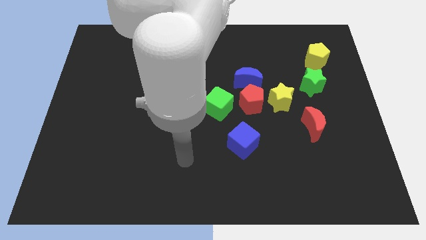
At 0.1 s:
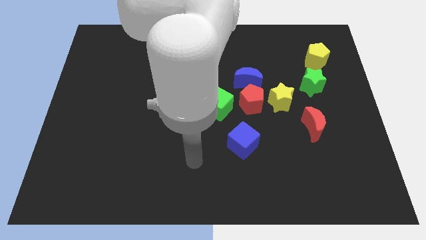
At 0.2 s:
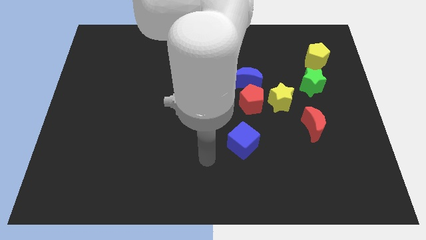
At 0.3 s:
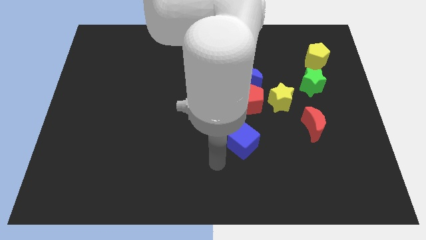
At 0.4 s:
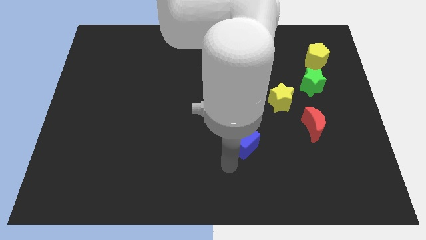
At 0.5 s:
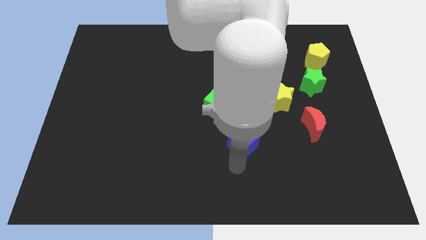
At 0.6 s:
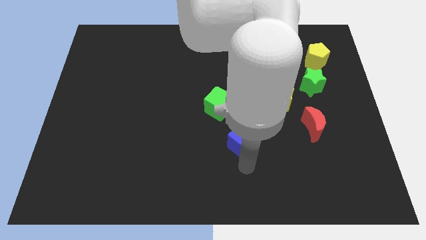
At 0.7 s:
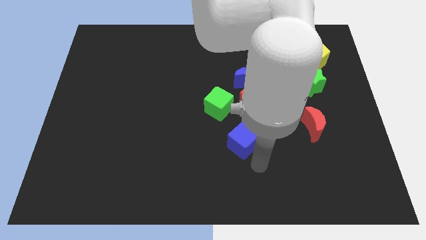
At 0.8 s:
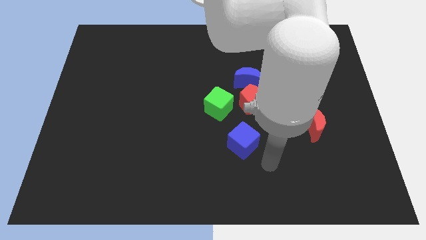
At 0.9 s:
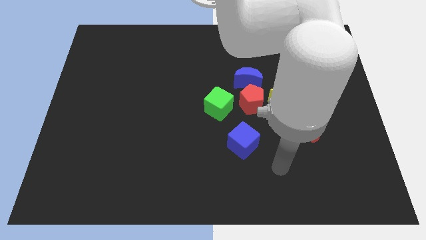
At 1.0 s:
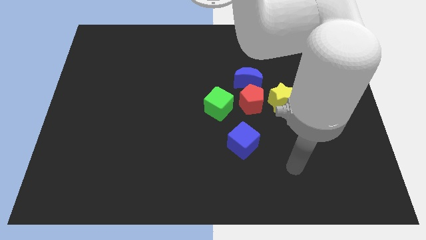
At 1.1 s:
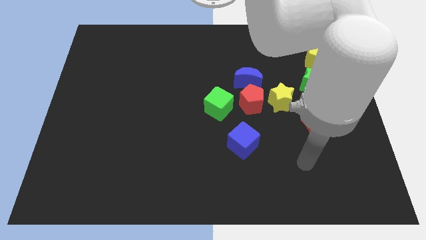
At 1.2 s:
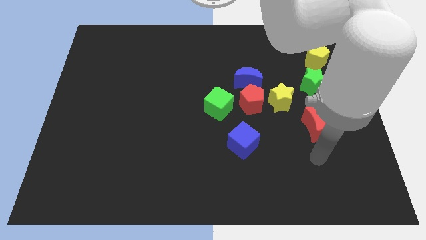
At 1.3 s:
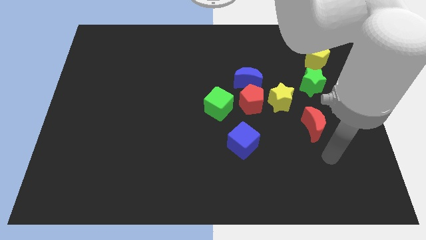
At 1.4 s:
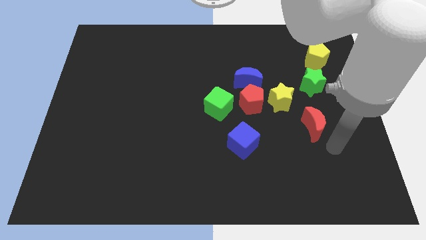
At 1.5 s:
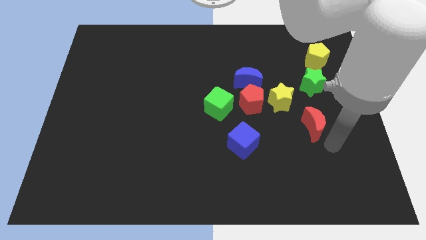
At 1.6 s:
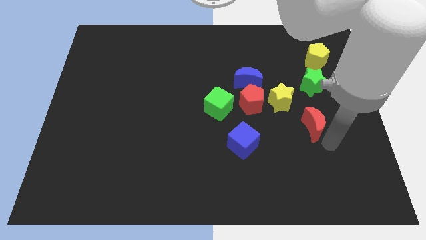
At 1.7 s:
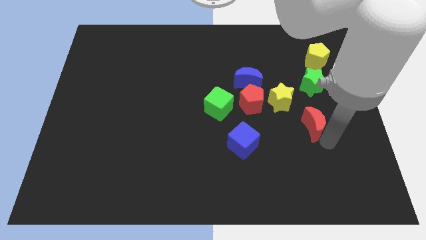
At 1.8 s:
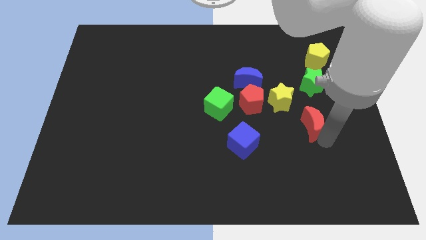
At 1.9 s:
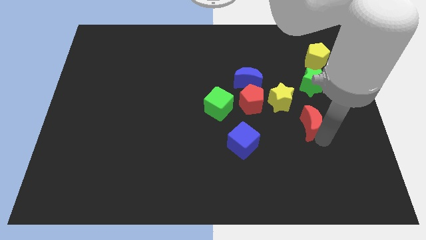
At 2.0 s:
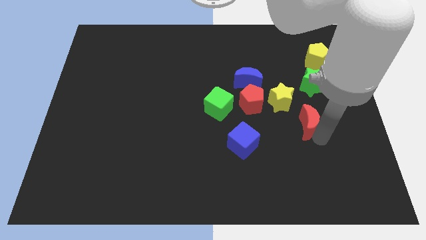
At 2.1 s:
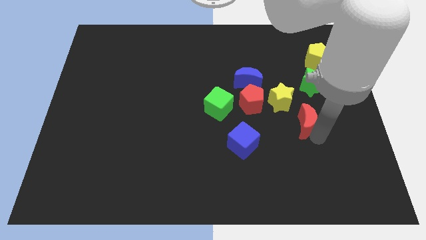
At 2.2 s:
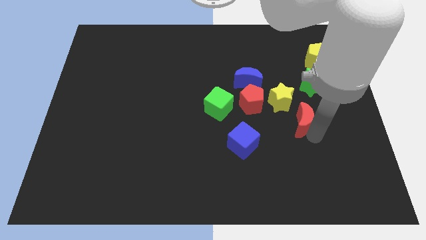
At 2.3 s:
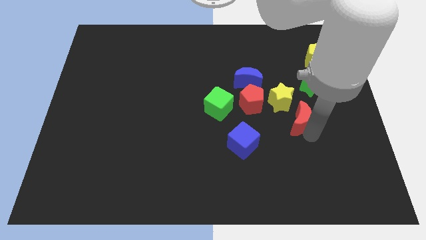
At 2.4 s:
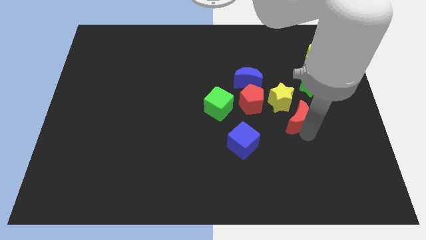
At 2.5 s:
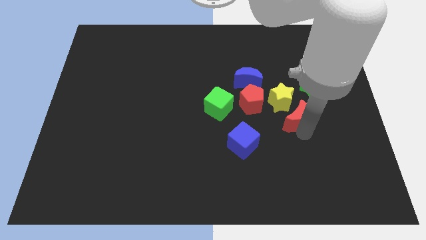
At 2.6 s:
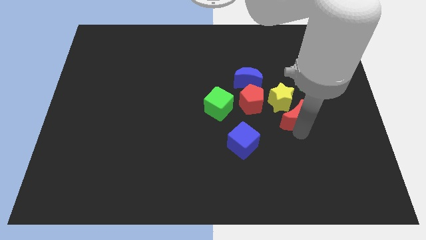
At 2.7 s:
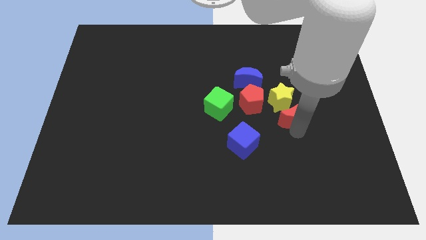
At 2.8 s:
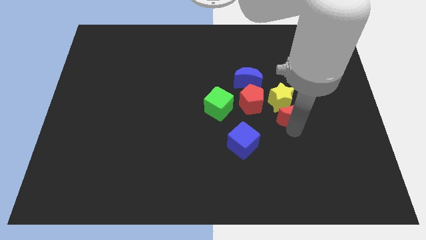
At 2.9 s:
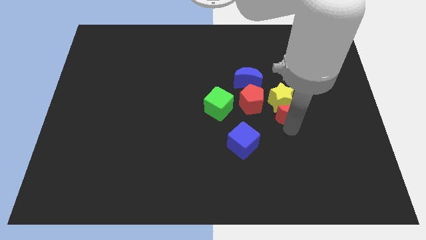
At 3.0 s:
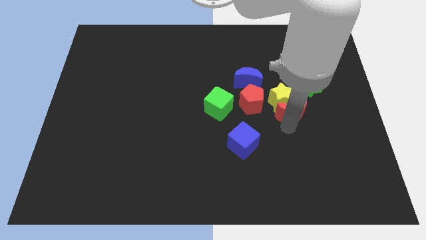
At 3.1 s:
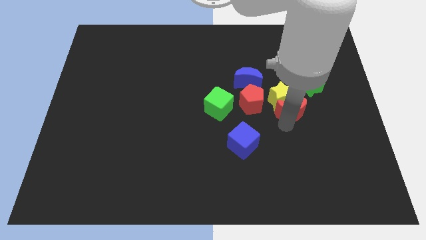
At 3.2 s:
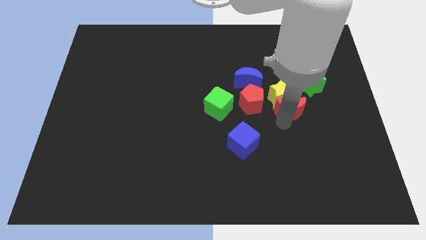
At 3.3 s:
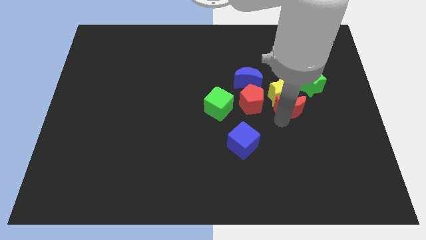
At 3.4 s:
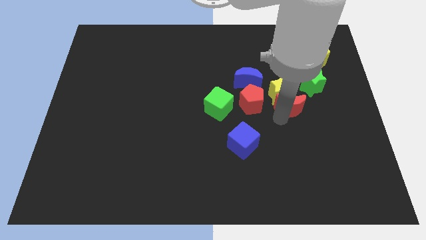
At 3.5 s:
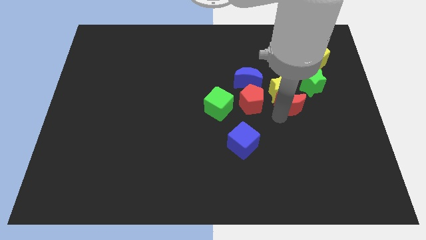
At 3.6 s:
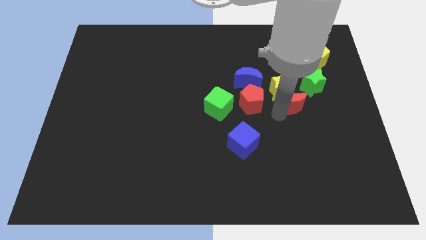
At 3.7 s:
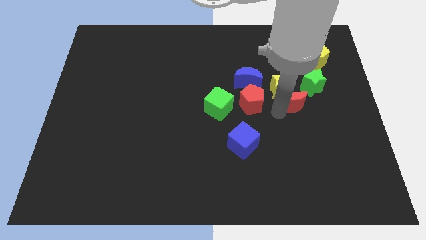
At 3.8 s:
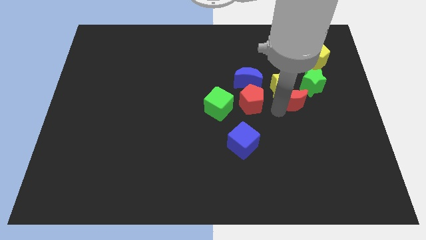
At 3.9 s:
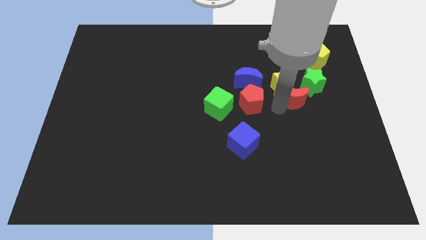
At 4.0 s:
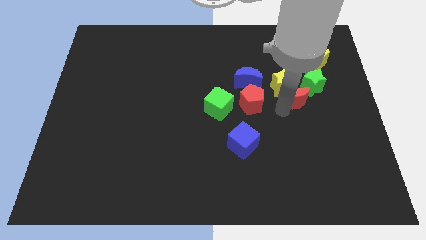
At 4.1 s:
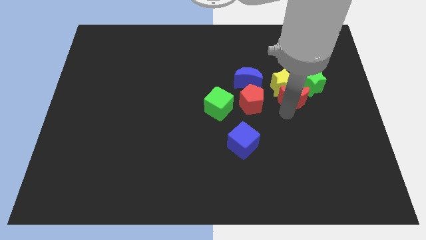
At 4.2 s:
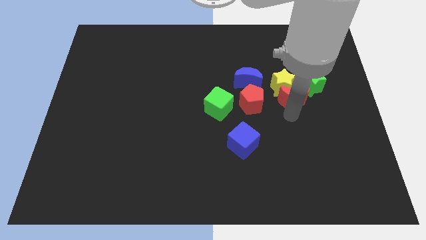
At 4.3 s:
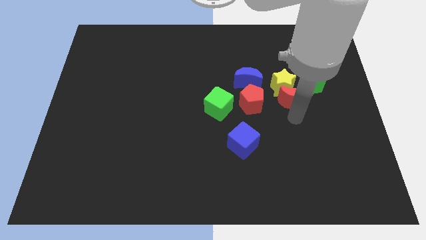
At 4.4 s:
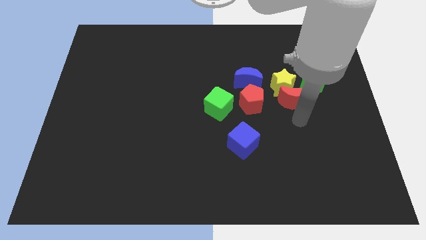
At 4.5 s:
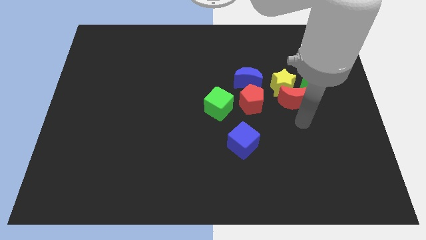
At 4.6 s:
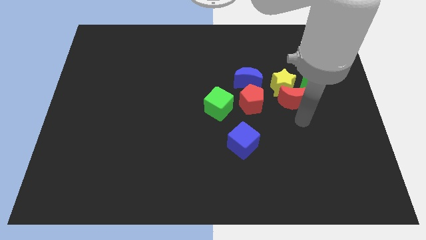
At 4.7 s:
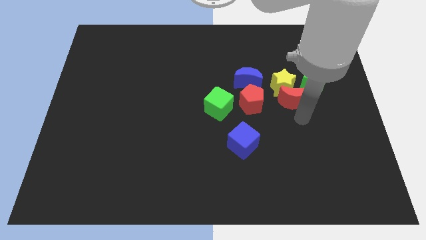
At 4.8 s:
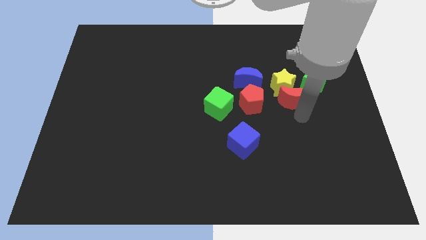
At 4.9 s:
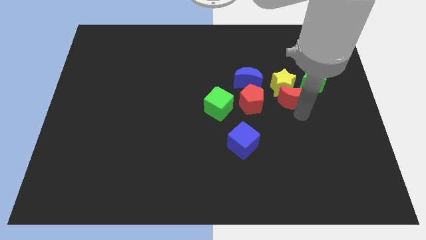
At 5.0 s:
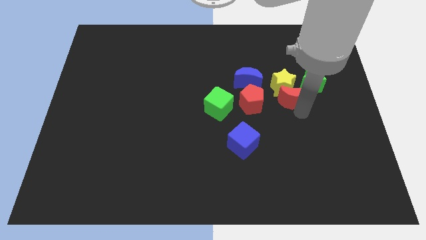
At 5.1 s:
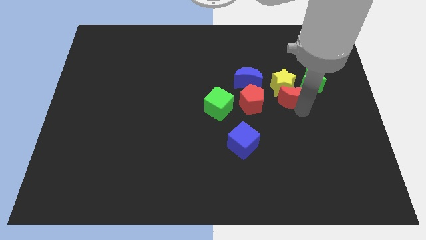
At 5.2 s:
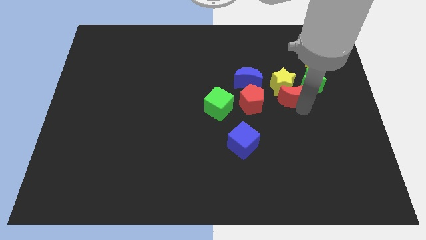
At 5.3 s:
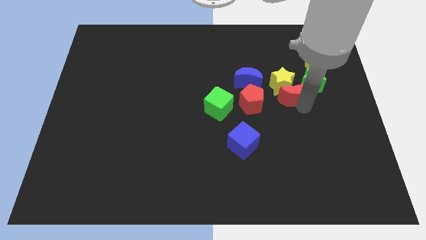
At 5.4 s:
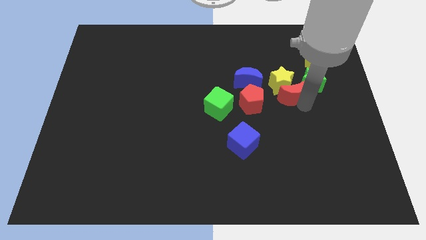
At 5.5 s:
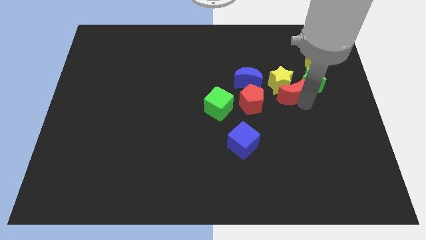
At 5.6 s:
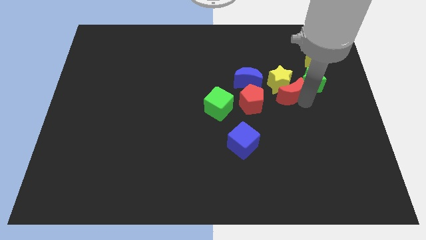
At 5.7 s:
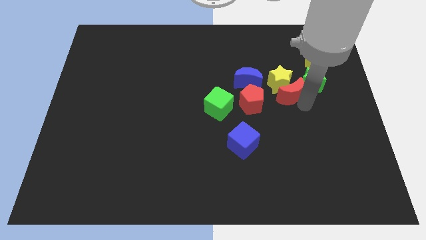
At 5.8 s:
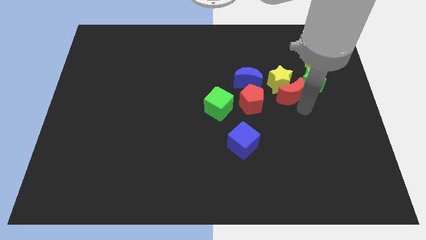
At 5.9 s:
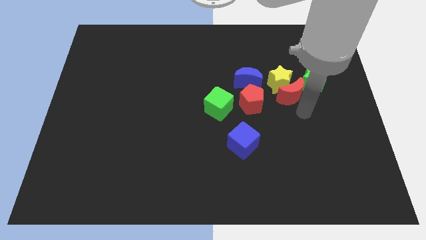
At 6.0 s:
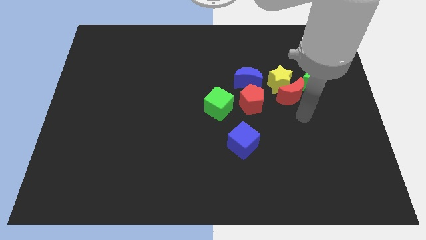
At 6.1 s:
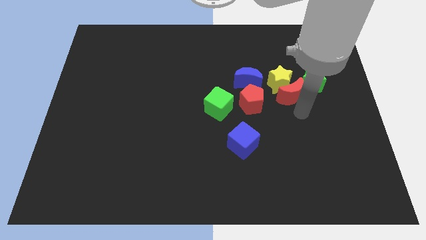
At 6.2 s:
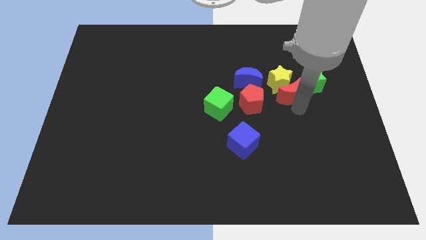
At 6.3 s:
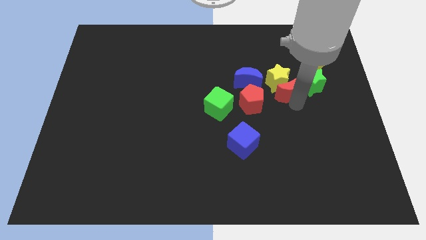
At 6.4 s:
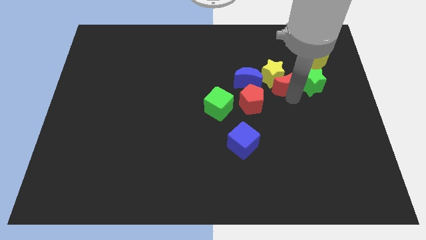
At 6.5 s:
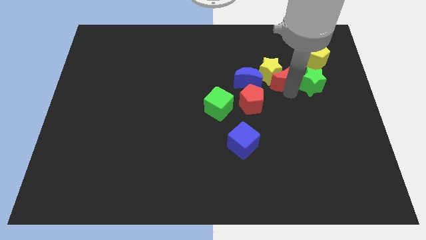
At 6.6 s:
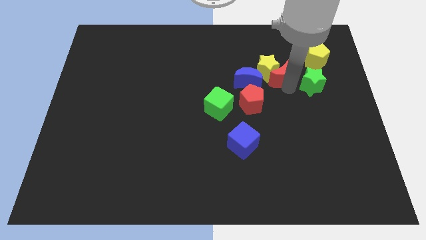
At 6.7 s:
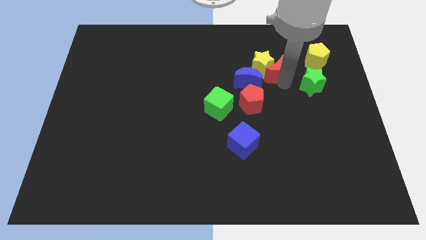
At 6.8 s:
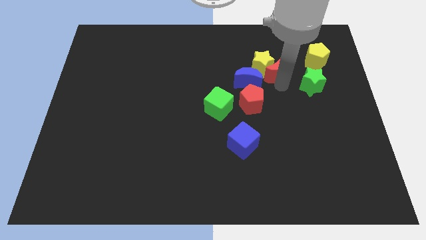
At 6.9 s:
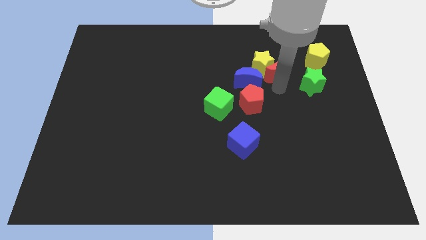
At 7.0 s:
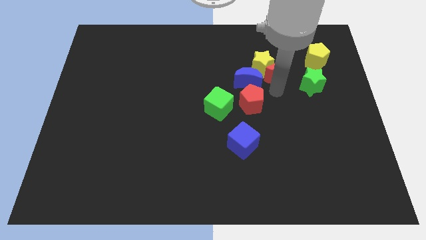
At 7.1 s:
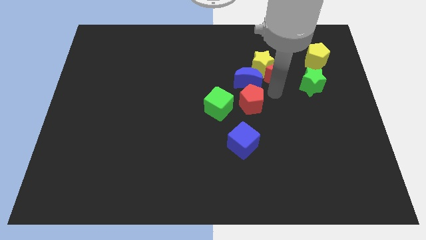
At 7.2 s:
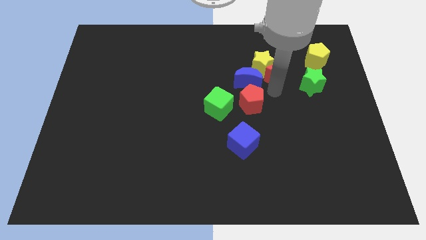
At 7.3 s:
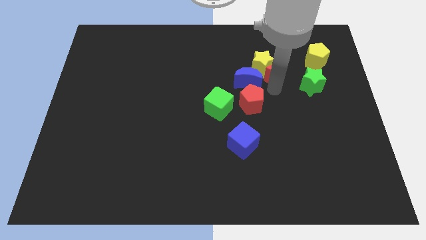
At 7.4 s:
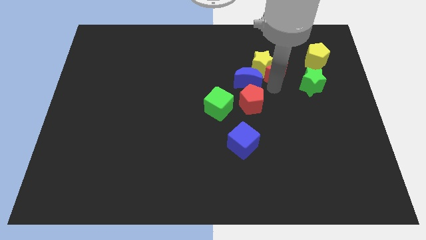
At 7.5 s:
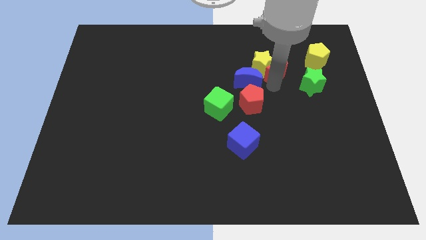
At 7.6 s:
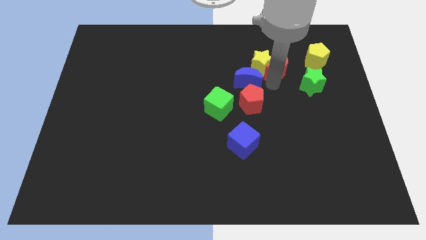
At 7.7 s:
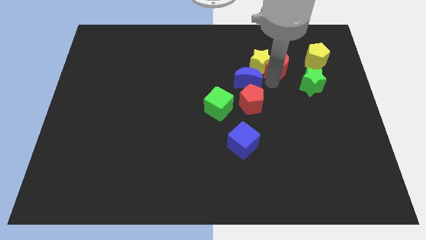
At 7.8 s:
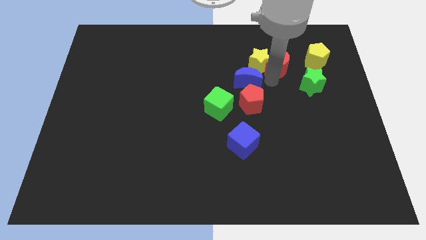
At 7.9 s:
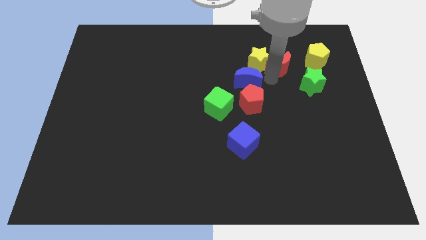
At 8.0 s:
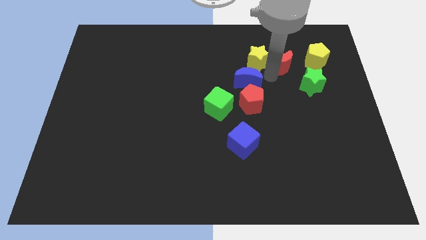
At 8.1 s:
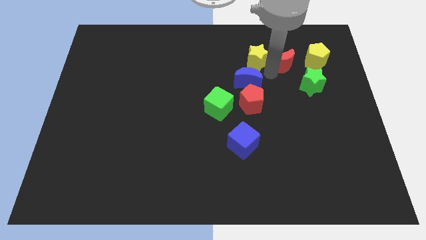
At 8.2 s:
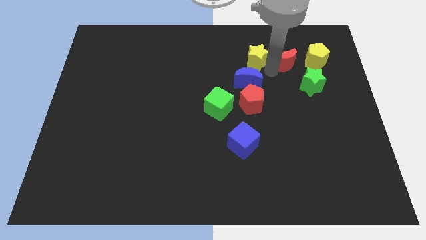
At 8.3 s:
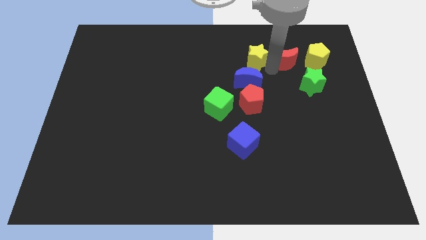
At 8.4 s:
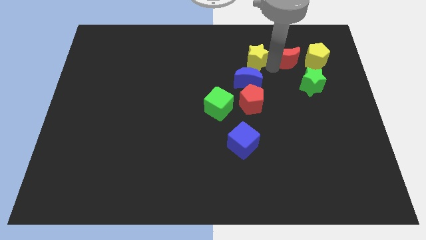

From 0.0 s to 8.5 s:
slide the red moon to the top side of the green star
